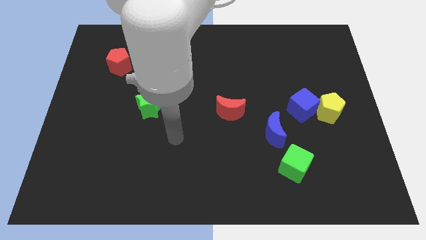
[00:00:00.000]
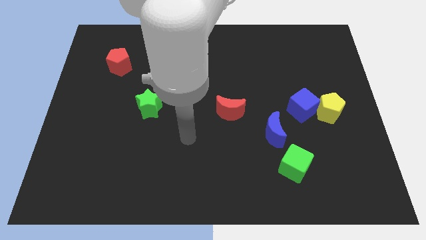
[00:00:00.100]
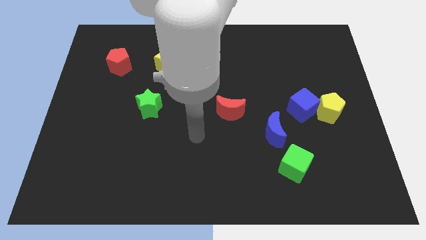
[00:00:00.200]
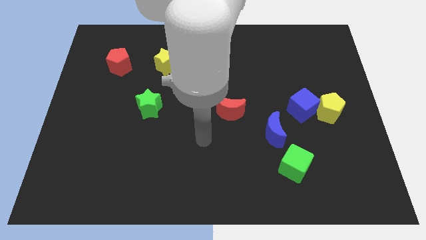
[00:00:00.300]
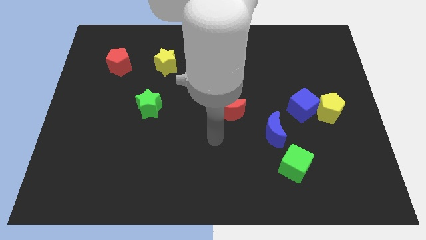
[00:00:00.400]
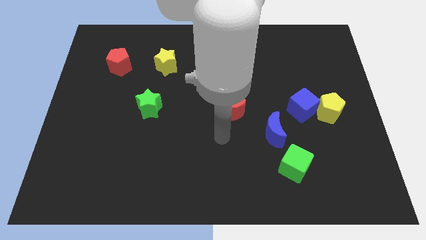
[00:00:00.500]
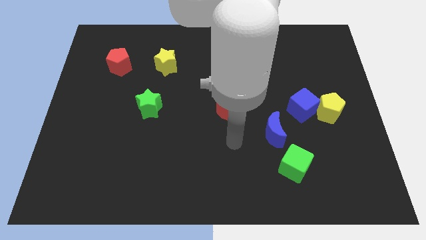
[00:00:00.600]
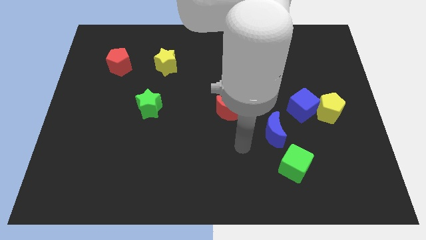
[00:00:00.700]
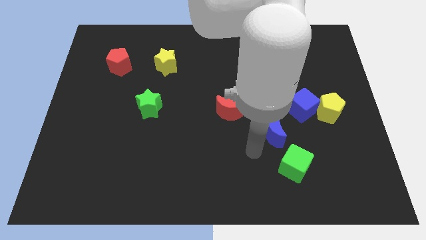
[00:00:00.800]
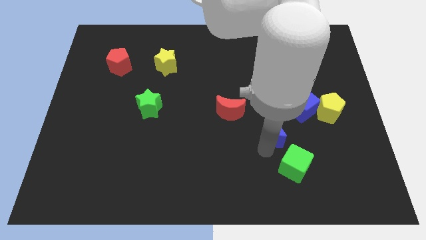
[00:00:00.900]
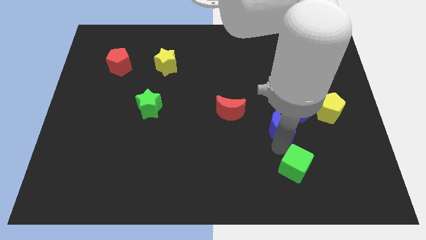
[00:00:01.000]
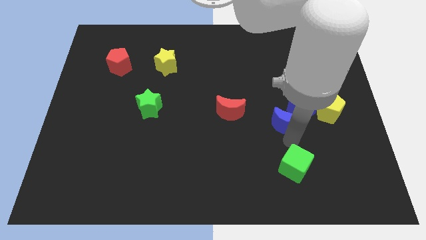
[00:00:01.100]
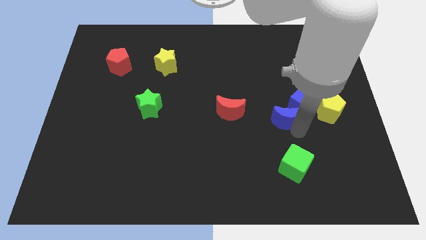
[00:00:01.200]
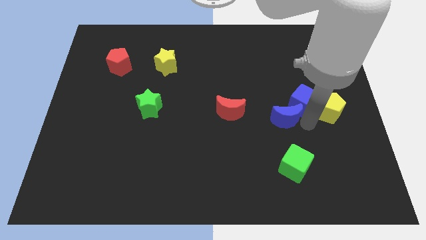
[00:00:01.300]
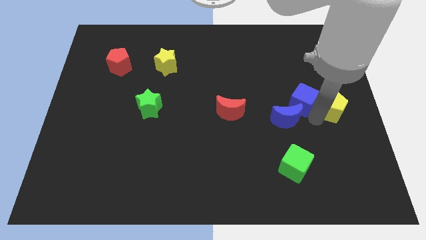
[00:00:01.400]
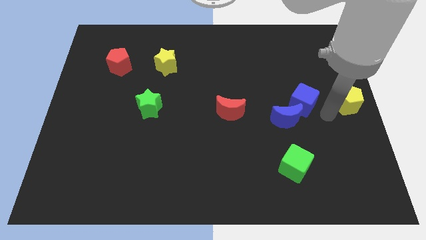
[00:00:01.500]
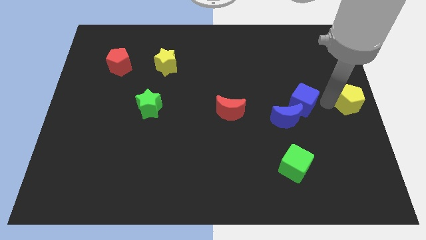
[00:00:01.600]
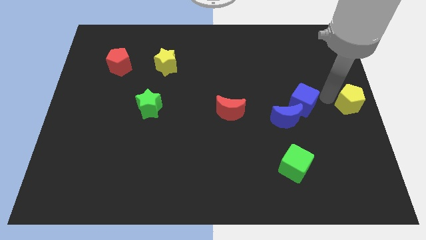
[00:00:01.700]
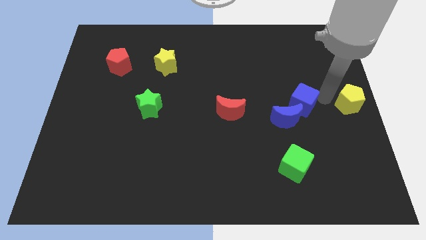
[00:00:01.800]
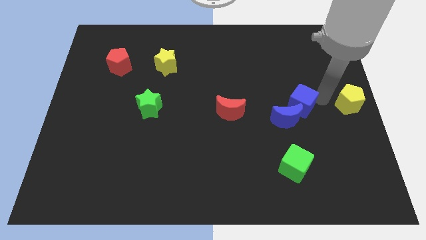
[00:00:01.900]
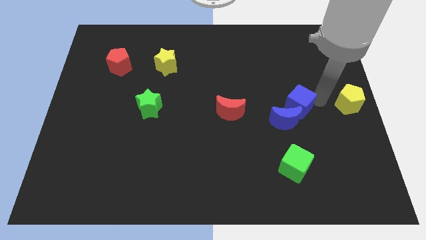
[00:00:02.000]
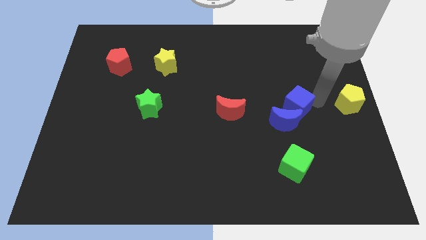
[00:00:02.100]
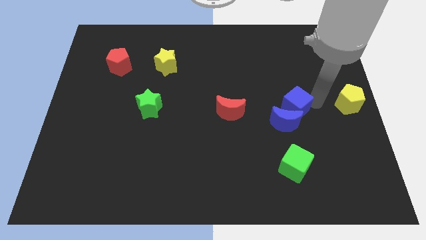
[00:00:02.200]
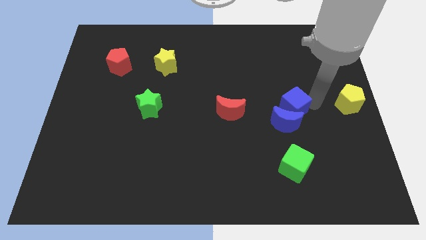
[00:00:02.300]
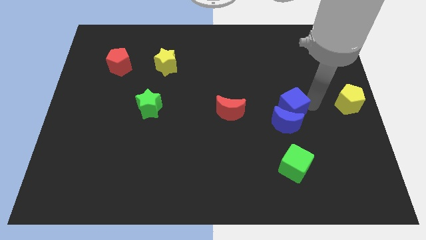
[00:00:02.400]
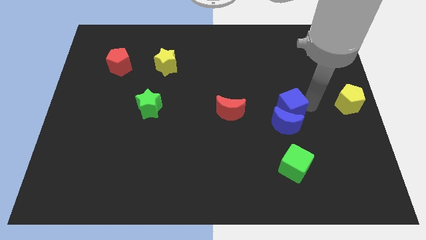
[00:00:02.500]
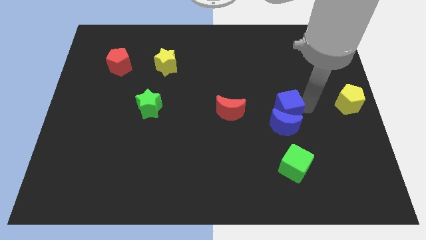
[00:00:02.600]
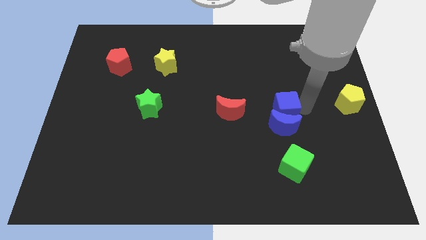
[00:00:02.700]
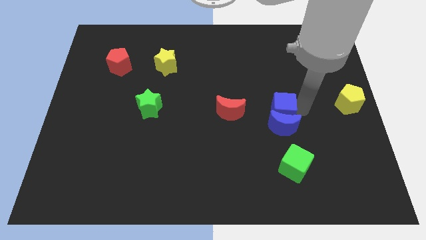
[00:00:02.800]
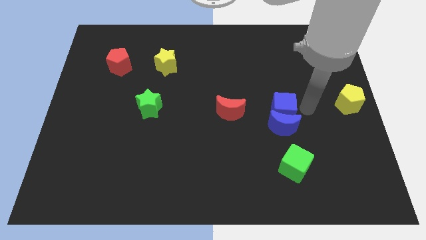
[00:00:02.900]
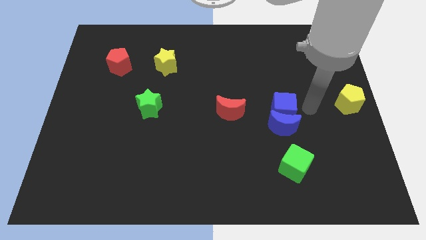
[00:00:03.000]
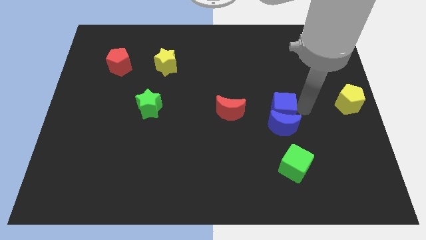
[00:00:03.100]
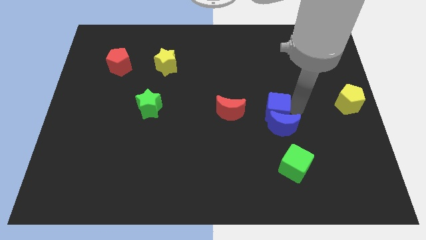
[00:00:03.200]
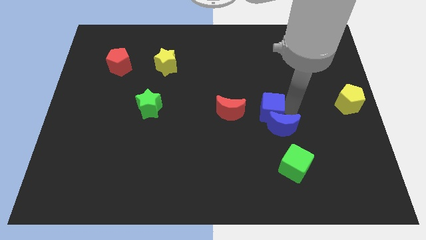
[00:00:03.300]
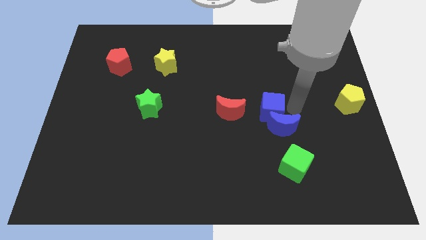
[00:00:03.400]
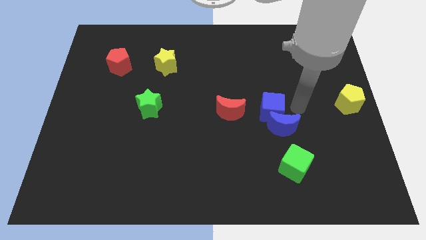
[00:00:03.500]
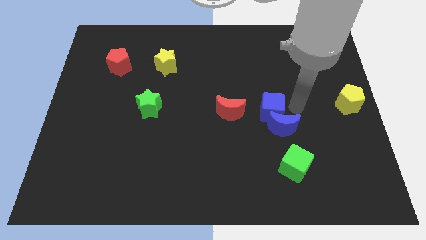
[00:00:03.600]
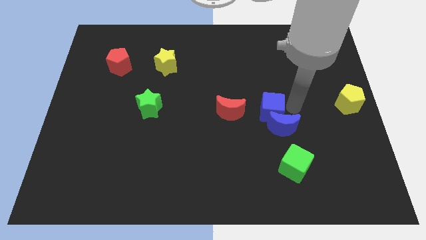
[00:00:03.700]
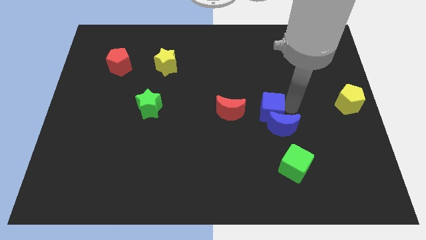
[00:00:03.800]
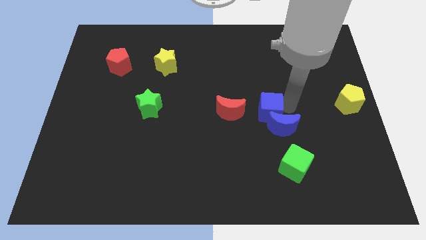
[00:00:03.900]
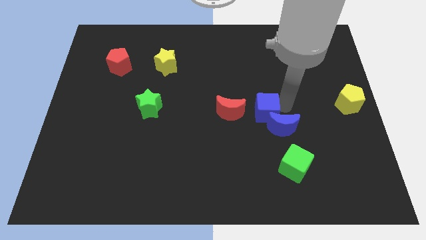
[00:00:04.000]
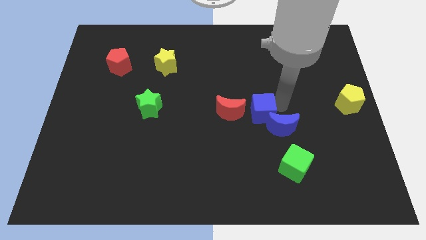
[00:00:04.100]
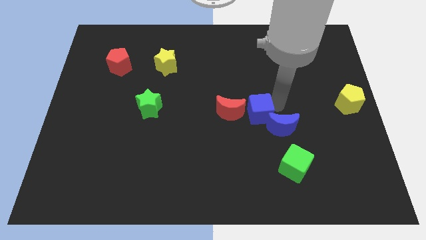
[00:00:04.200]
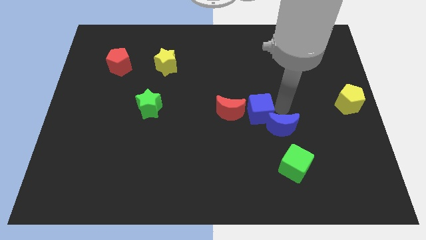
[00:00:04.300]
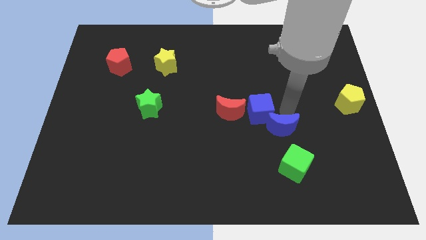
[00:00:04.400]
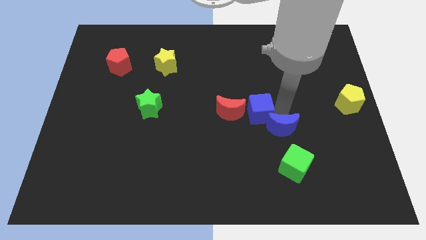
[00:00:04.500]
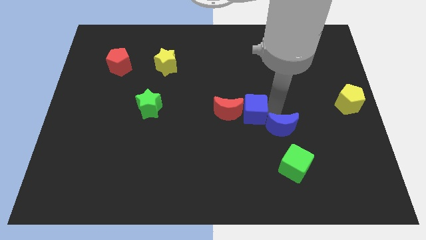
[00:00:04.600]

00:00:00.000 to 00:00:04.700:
move the blue cube next to the red moon

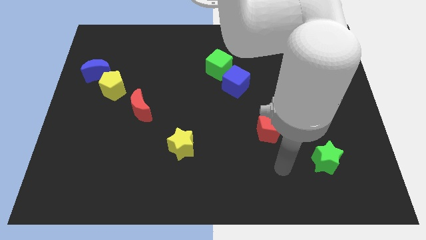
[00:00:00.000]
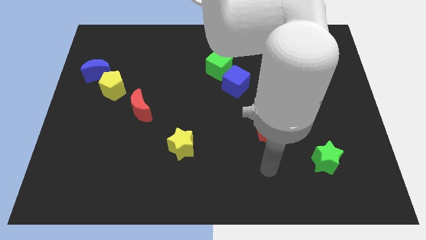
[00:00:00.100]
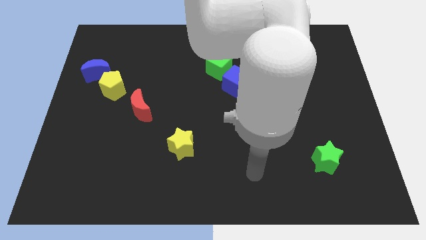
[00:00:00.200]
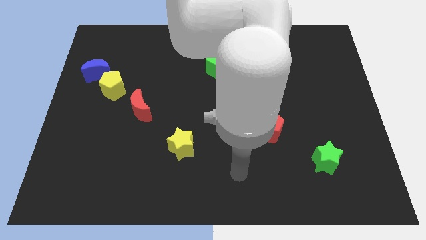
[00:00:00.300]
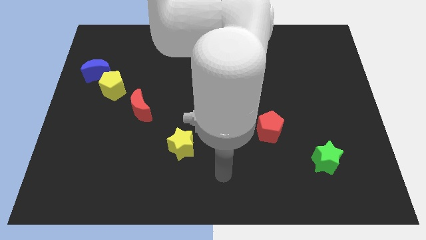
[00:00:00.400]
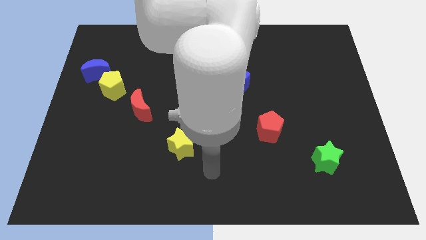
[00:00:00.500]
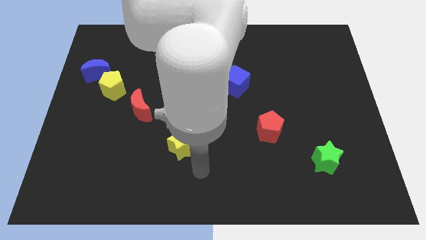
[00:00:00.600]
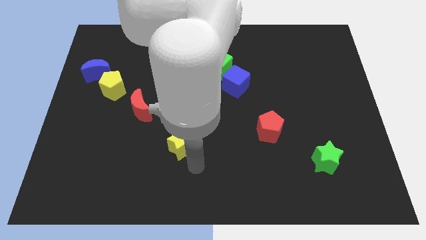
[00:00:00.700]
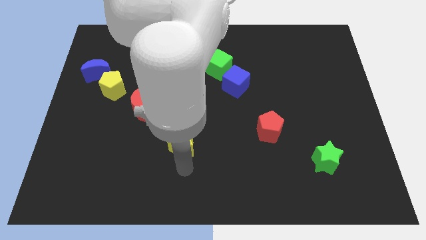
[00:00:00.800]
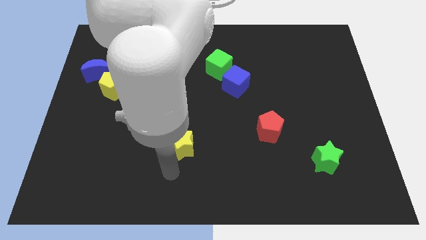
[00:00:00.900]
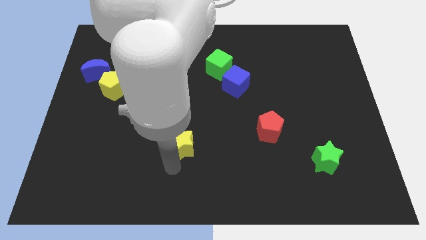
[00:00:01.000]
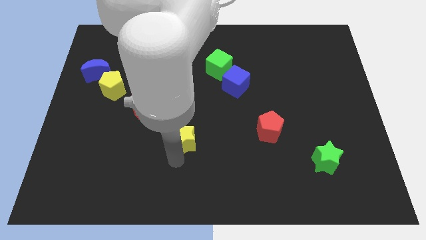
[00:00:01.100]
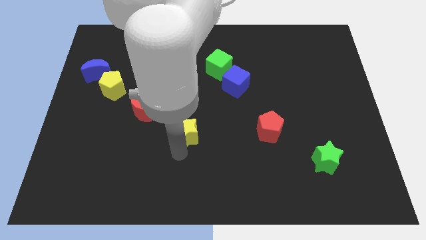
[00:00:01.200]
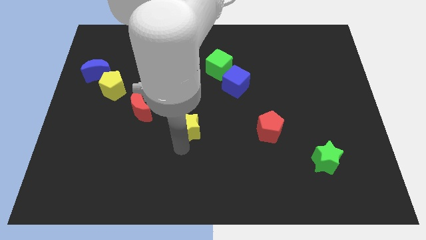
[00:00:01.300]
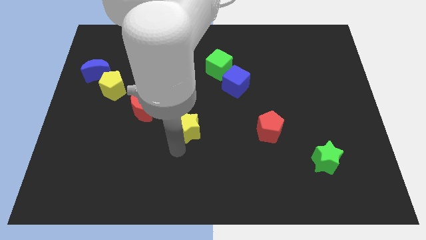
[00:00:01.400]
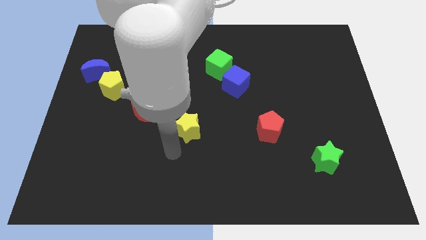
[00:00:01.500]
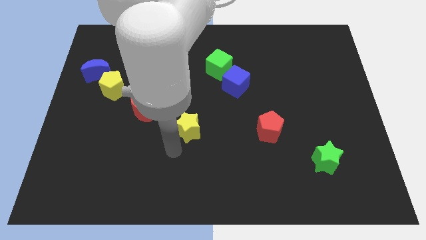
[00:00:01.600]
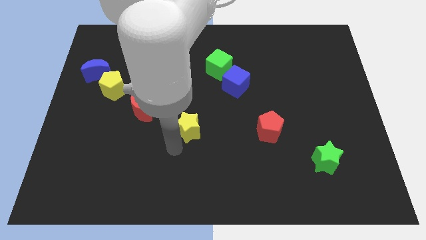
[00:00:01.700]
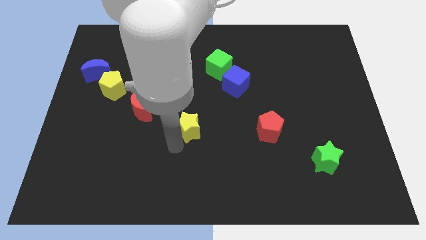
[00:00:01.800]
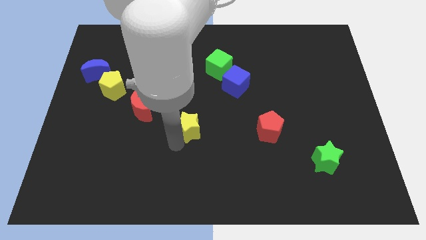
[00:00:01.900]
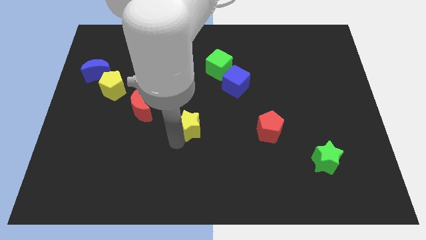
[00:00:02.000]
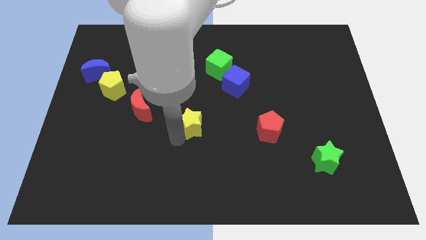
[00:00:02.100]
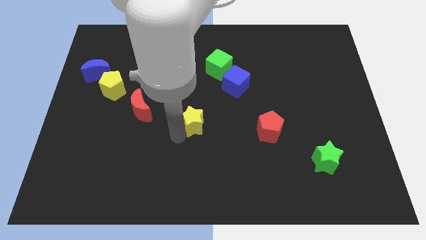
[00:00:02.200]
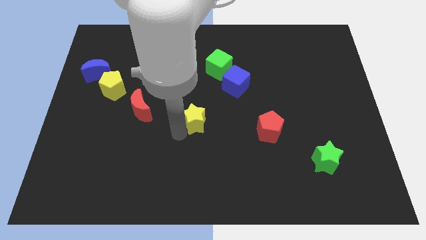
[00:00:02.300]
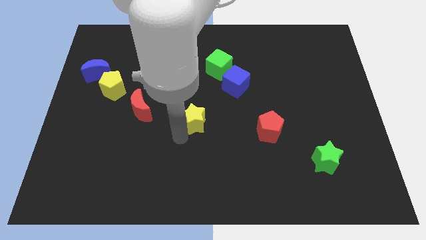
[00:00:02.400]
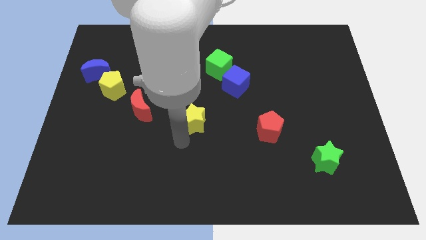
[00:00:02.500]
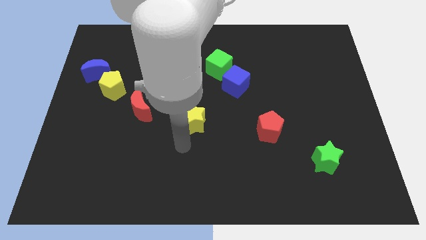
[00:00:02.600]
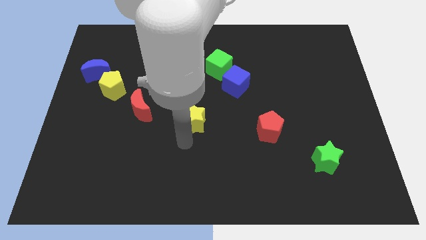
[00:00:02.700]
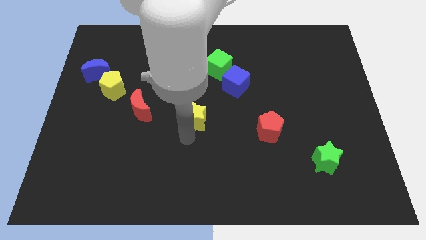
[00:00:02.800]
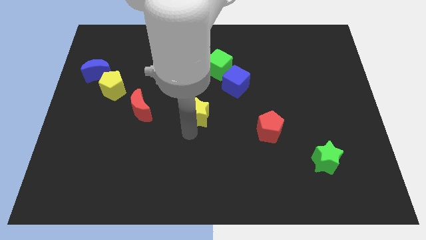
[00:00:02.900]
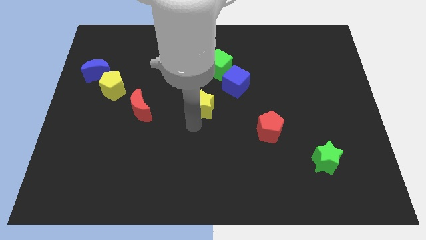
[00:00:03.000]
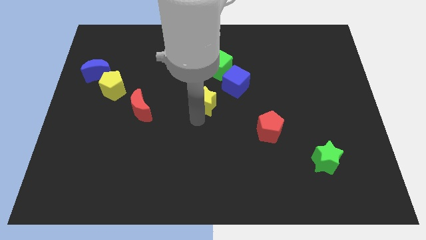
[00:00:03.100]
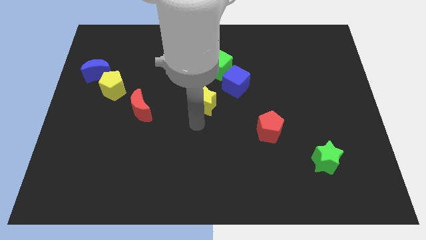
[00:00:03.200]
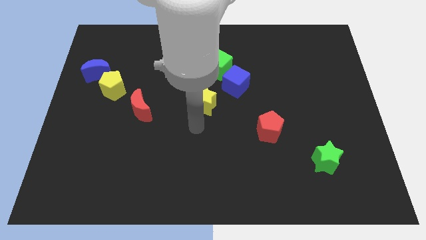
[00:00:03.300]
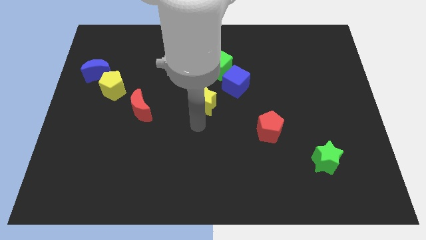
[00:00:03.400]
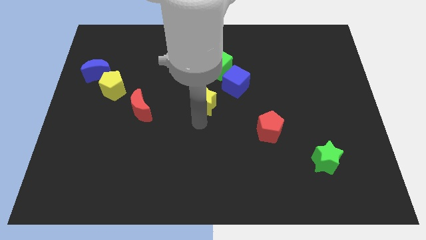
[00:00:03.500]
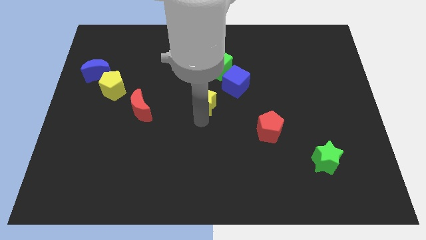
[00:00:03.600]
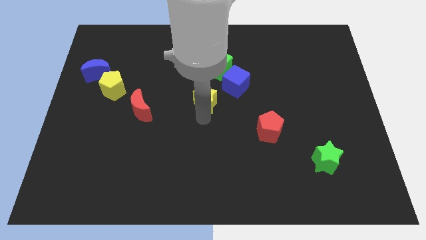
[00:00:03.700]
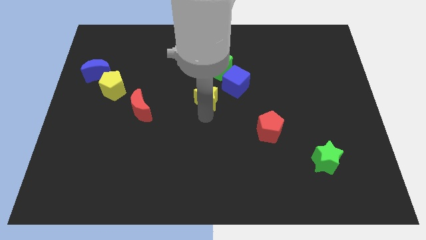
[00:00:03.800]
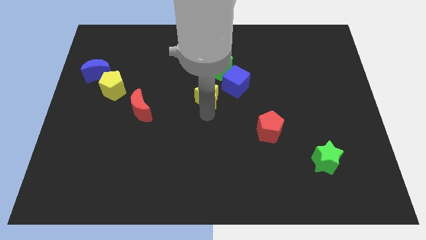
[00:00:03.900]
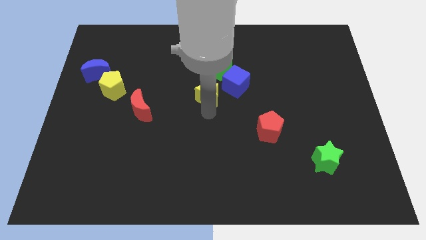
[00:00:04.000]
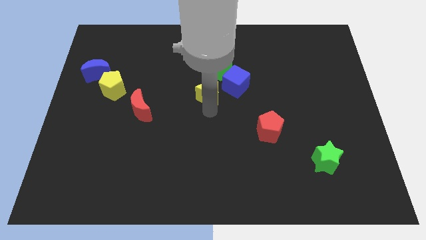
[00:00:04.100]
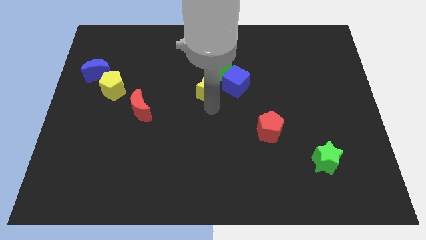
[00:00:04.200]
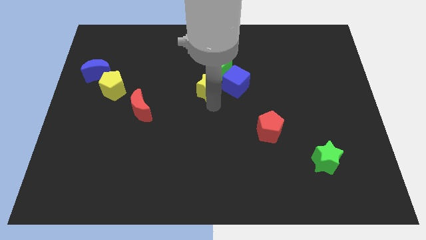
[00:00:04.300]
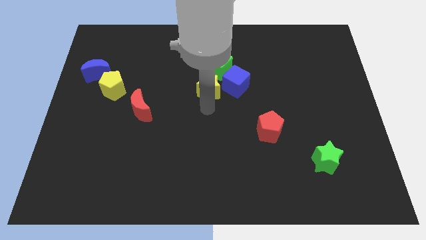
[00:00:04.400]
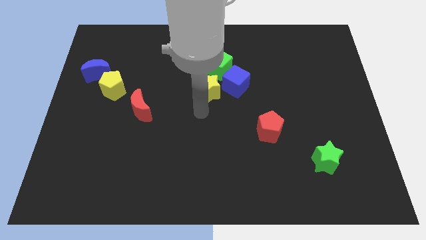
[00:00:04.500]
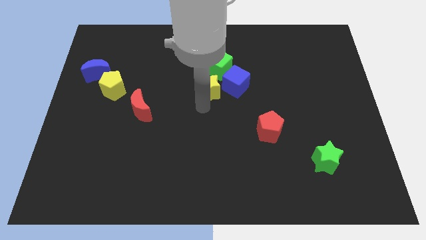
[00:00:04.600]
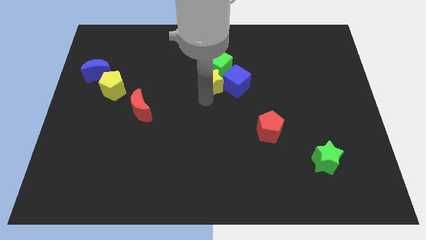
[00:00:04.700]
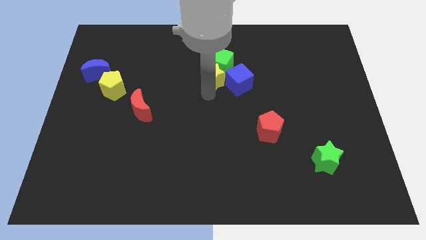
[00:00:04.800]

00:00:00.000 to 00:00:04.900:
slide the yellow star next to the green cube
